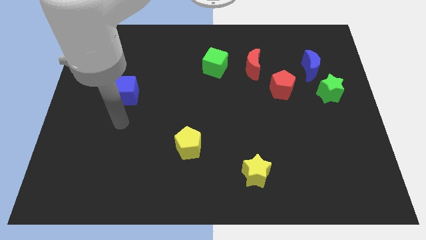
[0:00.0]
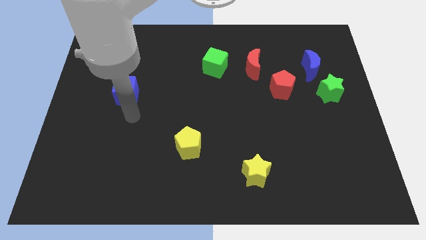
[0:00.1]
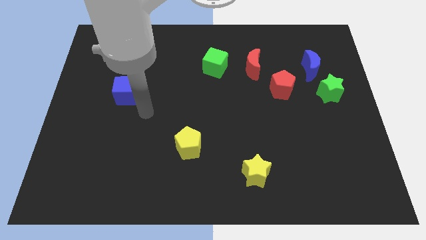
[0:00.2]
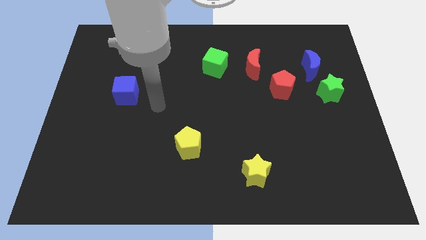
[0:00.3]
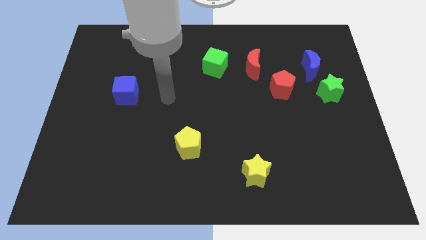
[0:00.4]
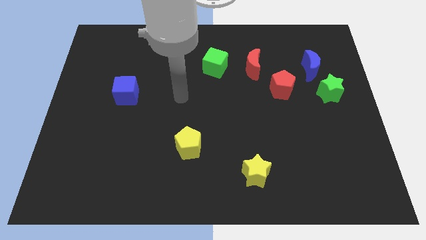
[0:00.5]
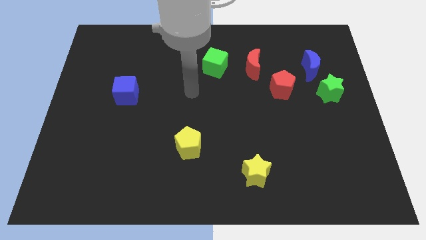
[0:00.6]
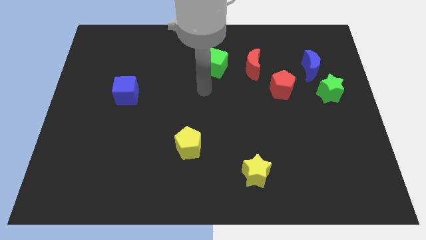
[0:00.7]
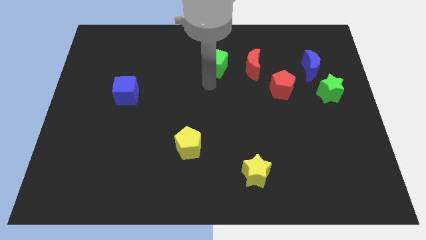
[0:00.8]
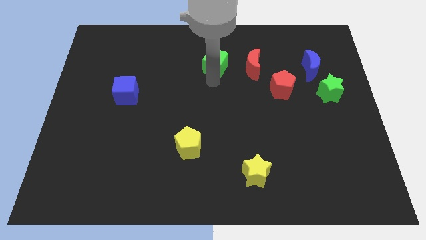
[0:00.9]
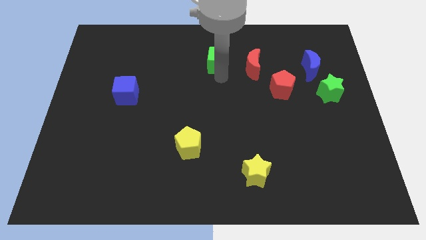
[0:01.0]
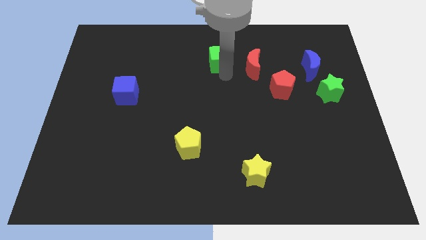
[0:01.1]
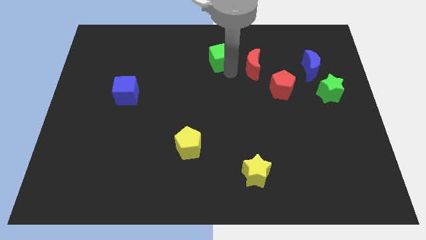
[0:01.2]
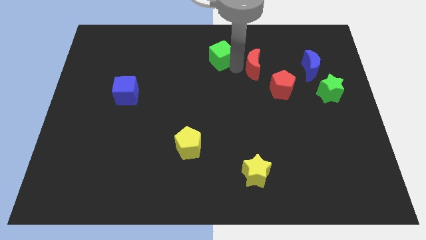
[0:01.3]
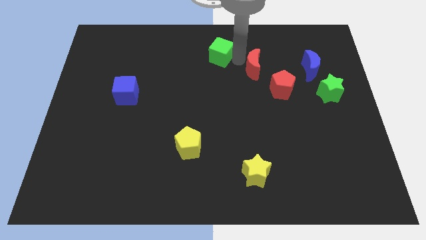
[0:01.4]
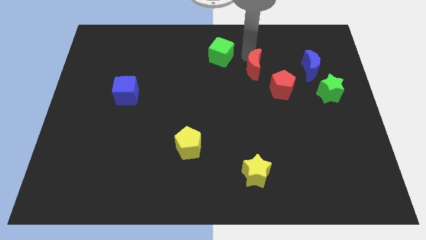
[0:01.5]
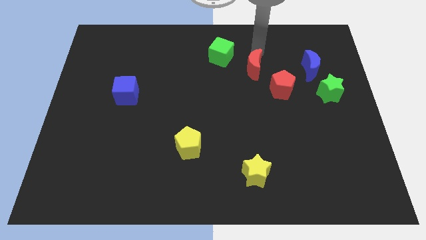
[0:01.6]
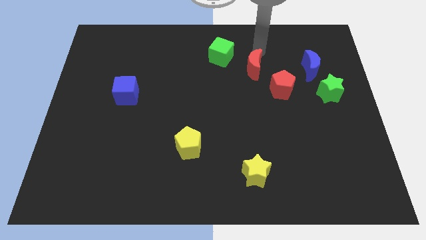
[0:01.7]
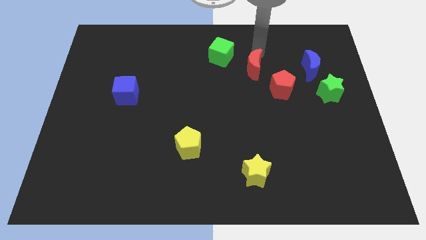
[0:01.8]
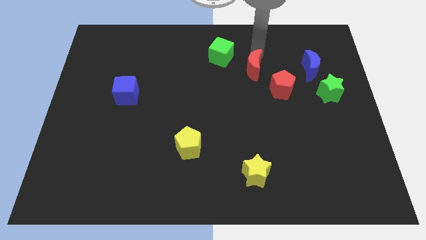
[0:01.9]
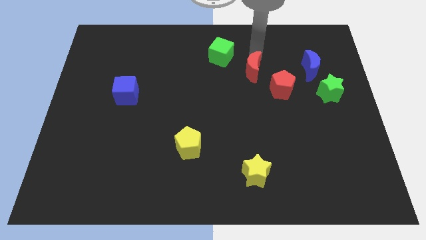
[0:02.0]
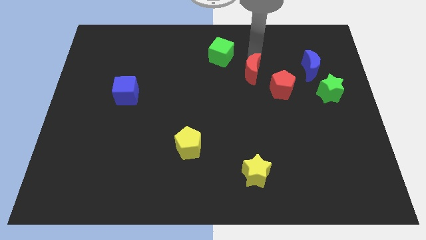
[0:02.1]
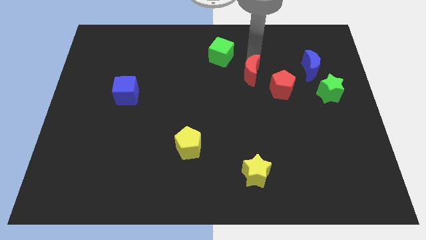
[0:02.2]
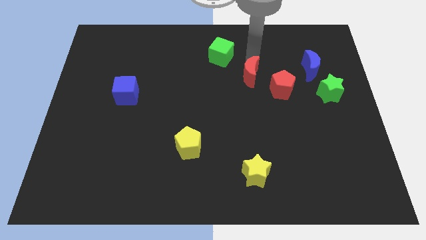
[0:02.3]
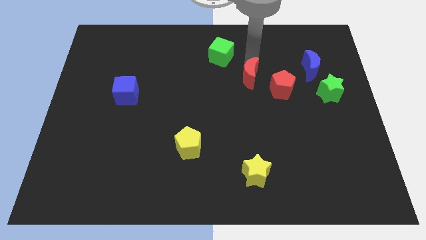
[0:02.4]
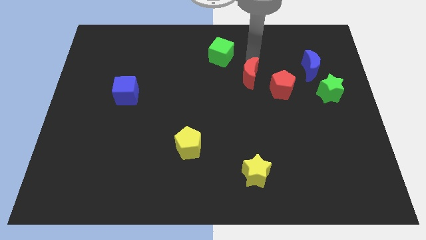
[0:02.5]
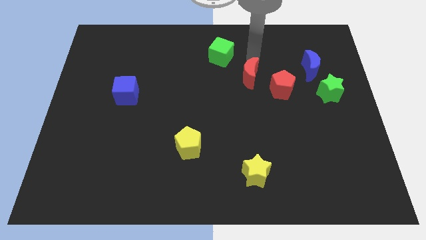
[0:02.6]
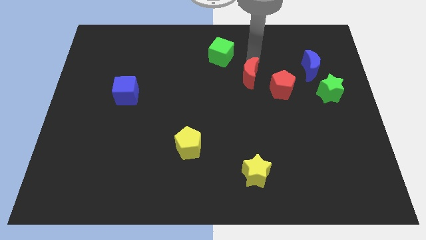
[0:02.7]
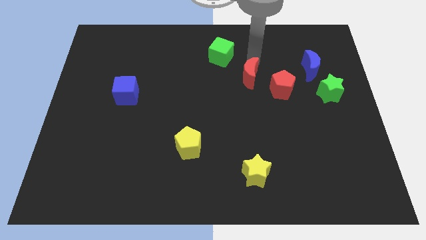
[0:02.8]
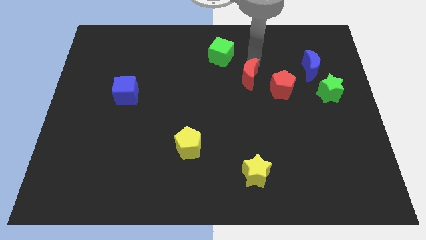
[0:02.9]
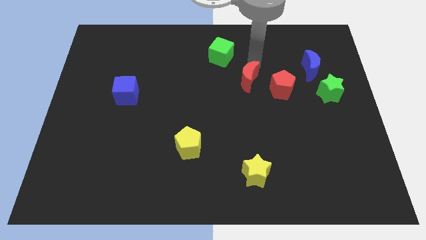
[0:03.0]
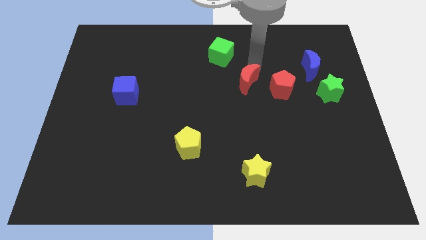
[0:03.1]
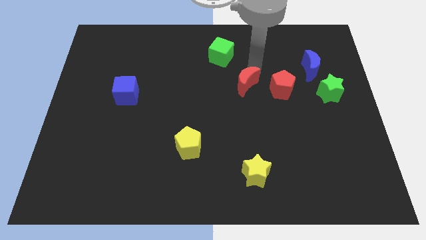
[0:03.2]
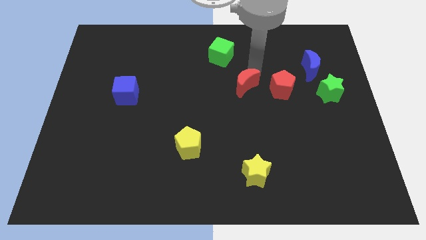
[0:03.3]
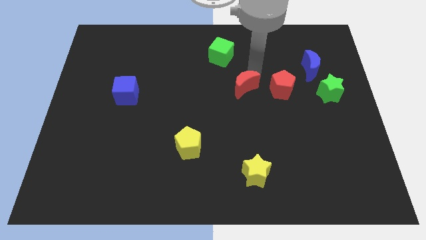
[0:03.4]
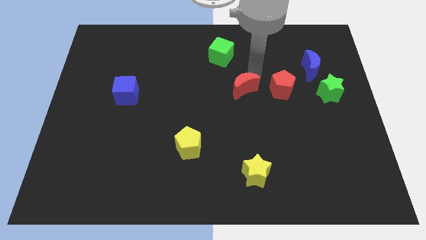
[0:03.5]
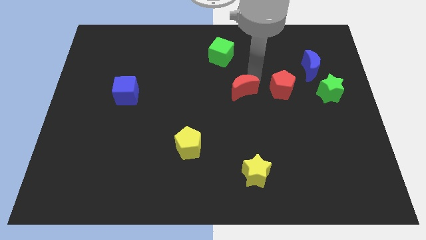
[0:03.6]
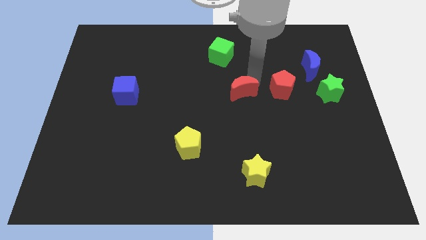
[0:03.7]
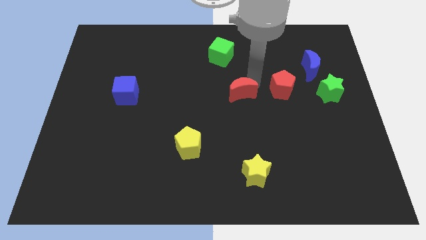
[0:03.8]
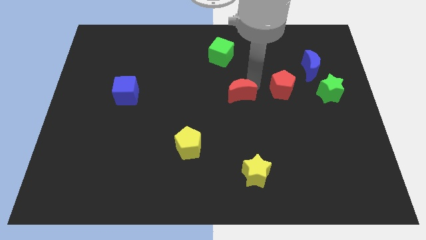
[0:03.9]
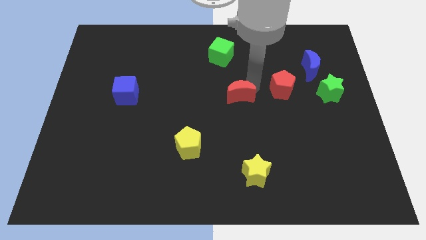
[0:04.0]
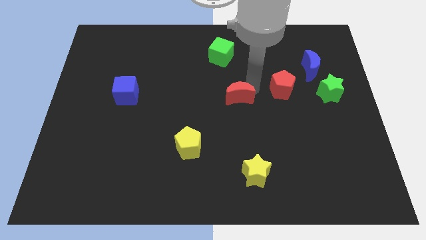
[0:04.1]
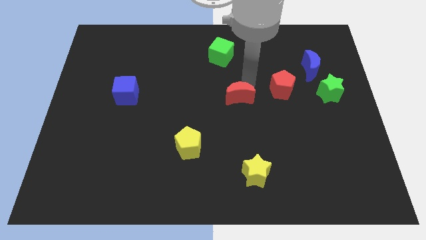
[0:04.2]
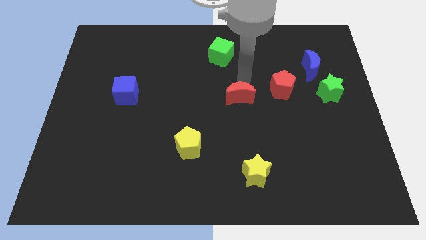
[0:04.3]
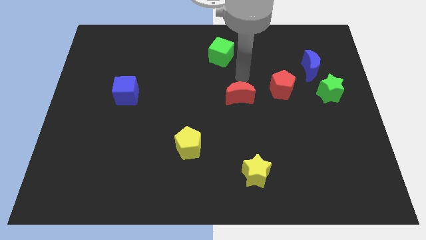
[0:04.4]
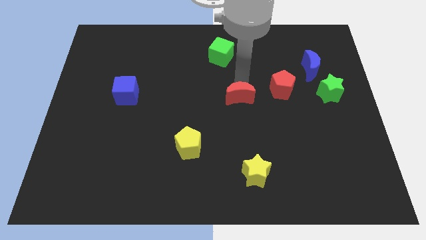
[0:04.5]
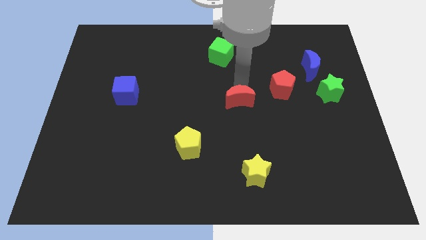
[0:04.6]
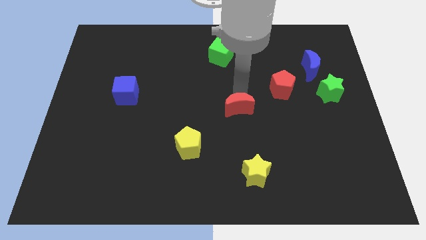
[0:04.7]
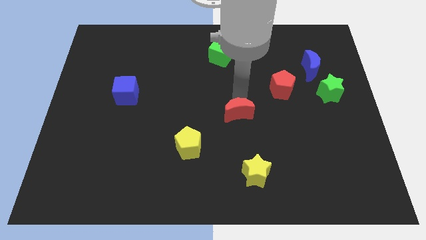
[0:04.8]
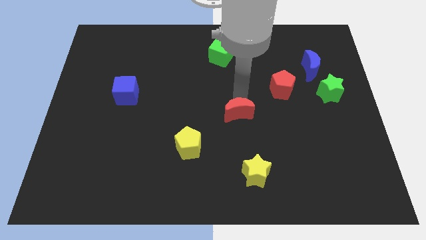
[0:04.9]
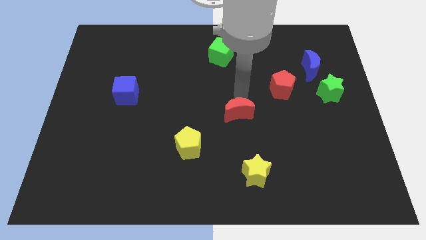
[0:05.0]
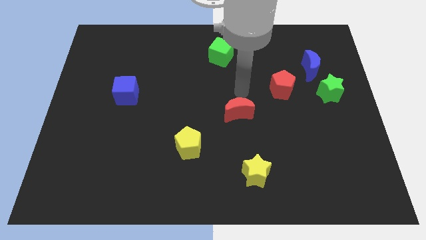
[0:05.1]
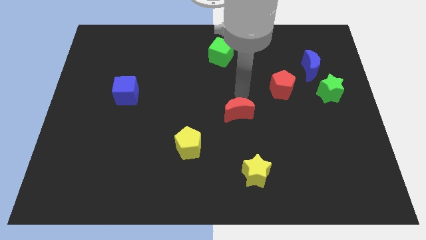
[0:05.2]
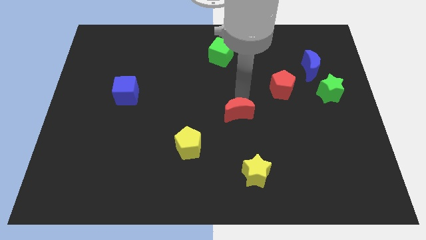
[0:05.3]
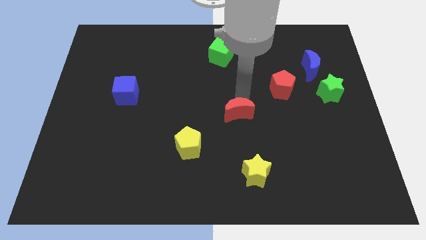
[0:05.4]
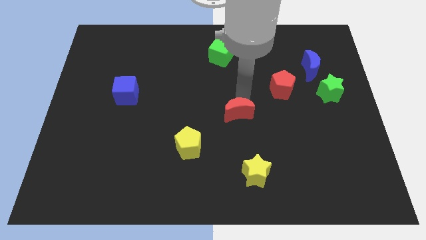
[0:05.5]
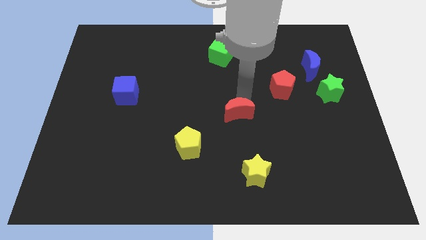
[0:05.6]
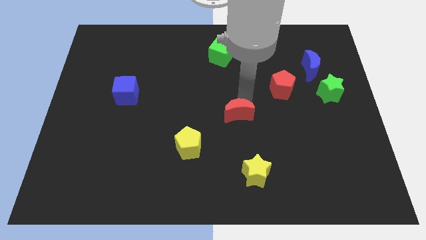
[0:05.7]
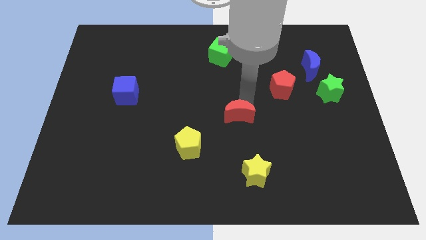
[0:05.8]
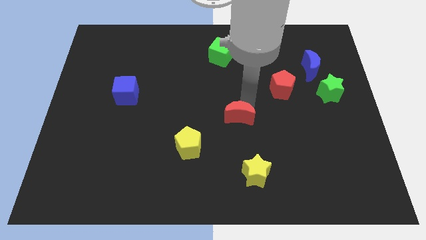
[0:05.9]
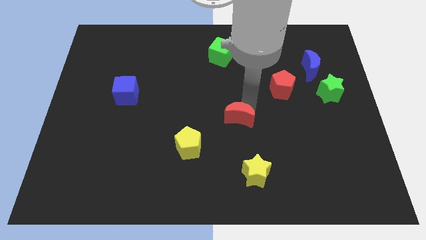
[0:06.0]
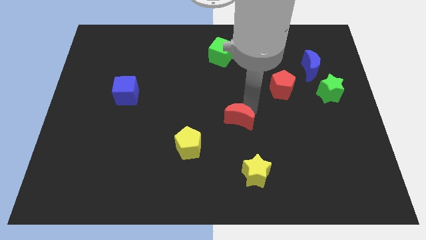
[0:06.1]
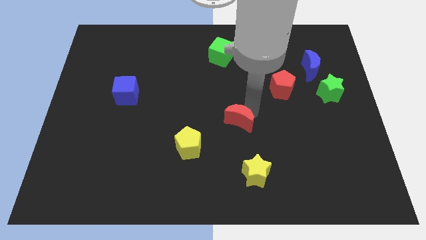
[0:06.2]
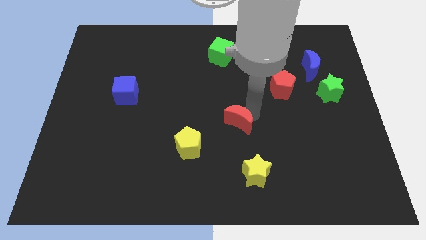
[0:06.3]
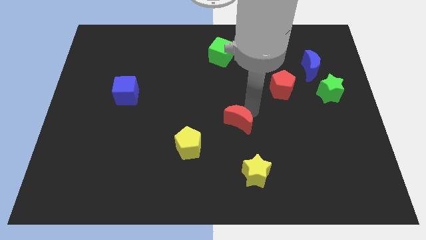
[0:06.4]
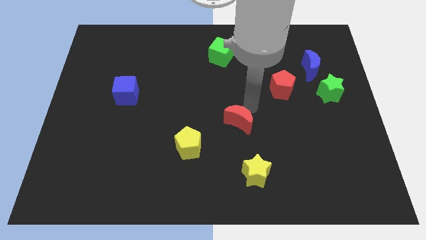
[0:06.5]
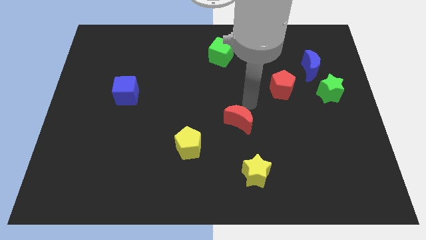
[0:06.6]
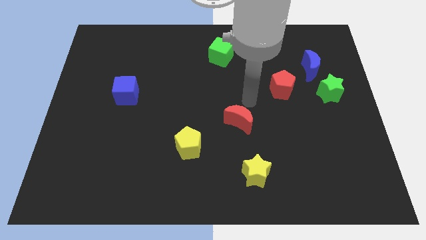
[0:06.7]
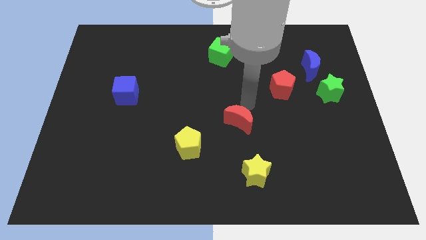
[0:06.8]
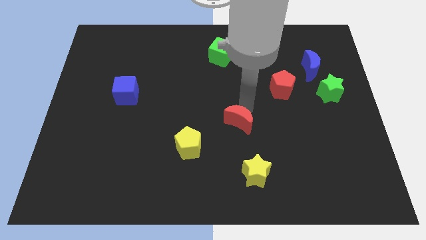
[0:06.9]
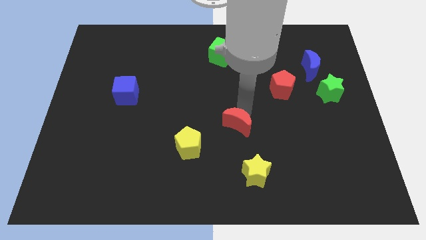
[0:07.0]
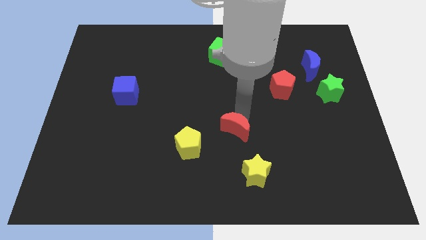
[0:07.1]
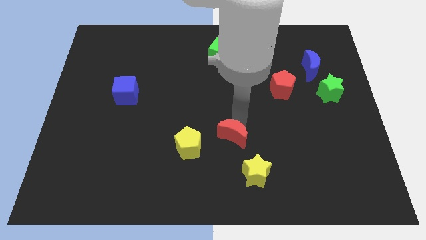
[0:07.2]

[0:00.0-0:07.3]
push the red moon to the top left of the yellow star
